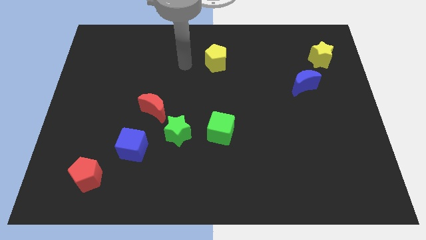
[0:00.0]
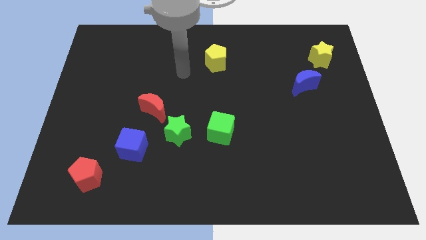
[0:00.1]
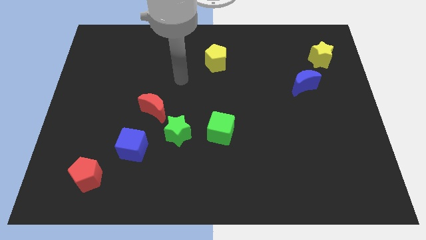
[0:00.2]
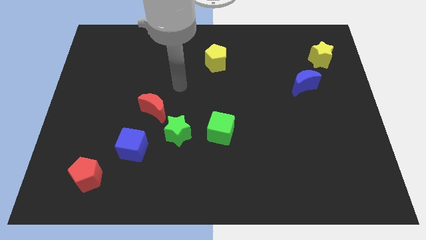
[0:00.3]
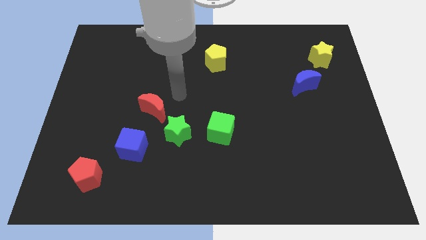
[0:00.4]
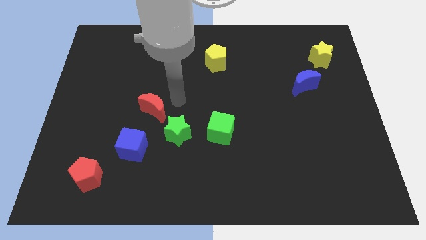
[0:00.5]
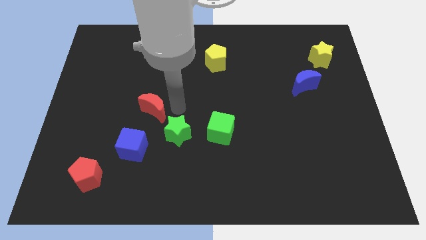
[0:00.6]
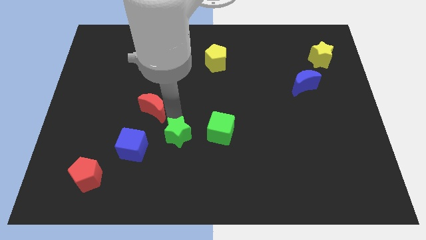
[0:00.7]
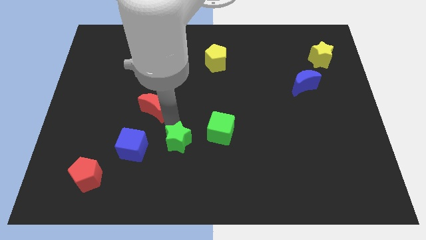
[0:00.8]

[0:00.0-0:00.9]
pull the red moon apart from the green star

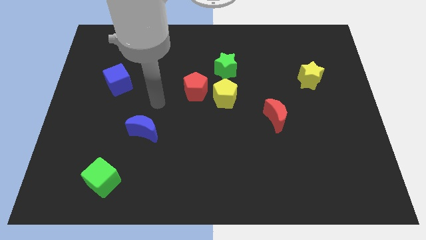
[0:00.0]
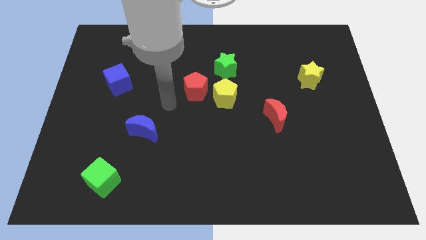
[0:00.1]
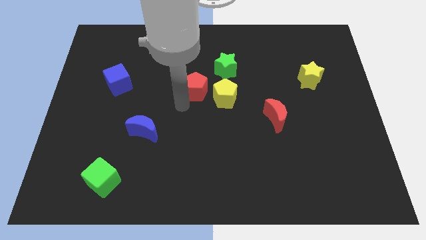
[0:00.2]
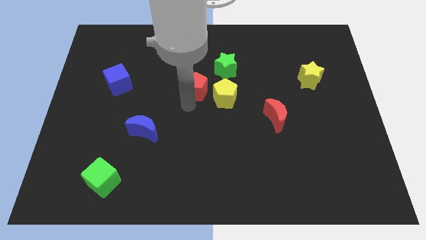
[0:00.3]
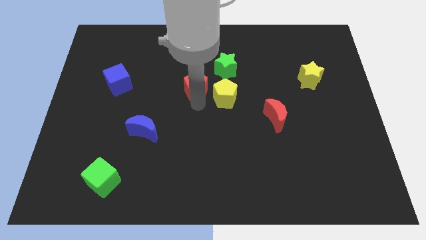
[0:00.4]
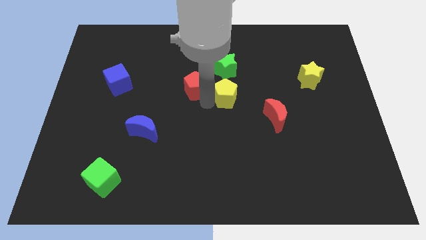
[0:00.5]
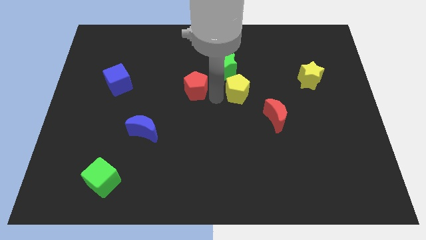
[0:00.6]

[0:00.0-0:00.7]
pull the red pentagon apart from the yellow pentagon

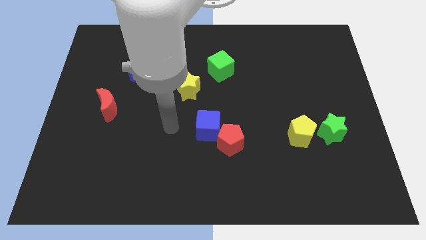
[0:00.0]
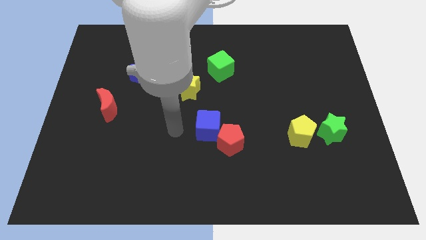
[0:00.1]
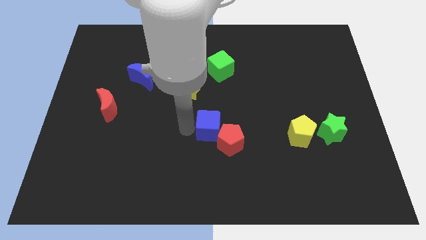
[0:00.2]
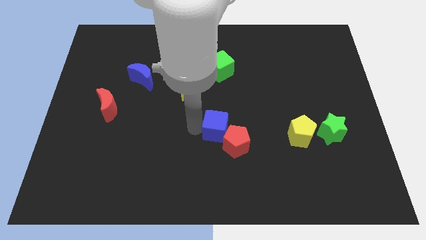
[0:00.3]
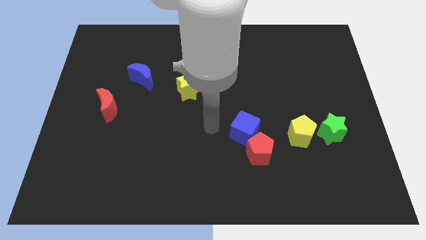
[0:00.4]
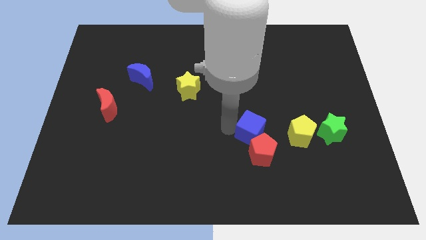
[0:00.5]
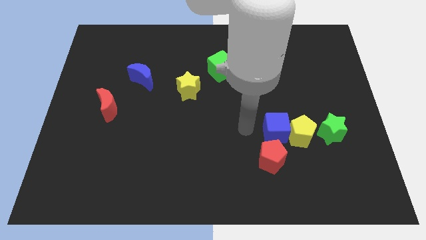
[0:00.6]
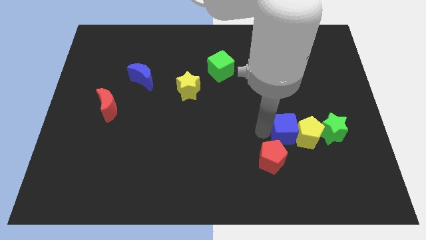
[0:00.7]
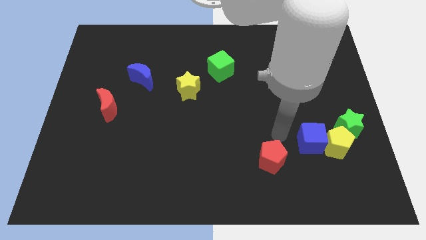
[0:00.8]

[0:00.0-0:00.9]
move the red pentagon away from the blue cube

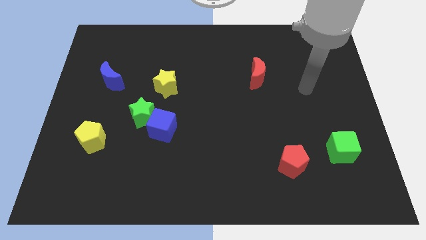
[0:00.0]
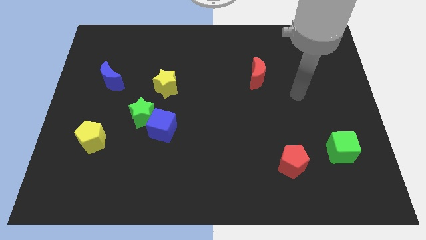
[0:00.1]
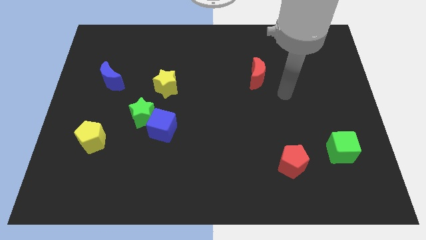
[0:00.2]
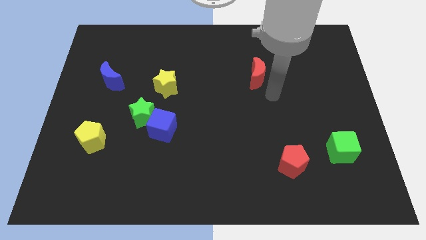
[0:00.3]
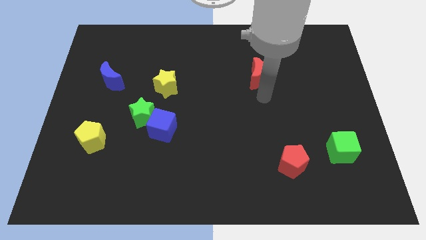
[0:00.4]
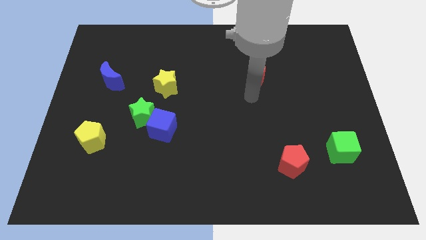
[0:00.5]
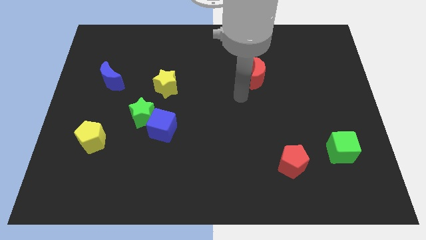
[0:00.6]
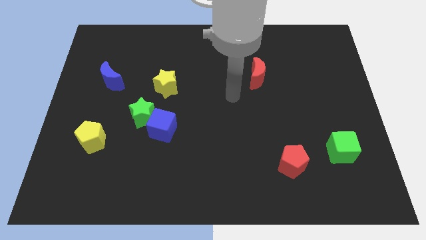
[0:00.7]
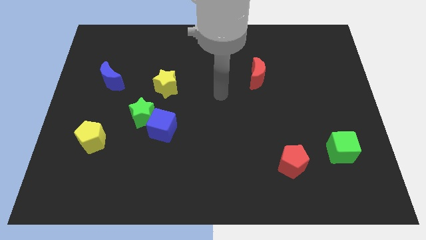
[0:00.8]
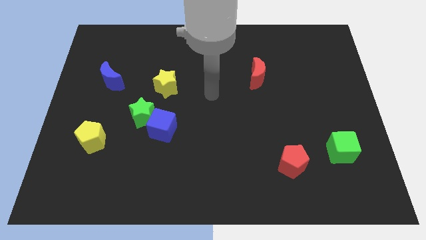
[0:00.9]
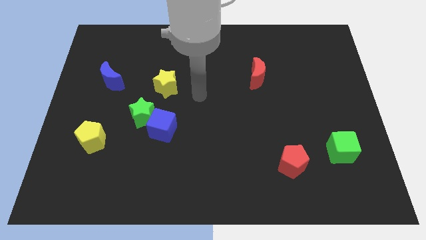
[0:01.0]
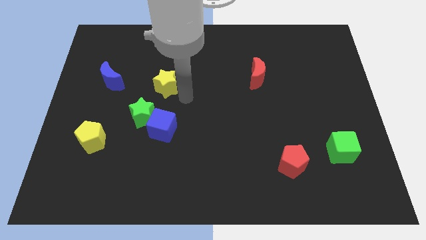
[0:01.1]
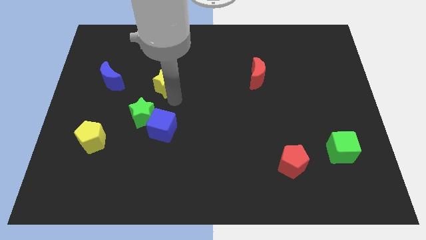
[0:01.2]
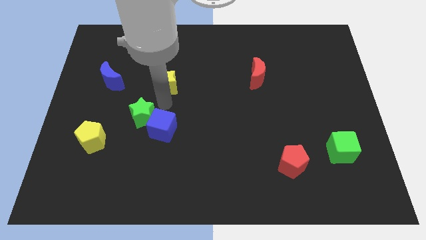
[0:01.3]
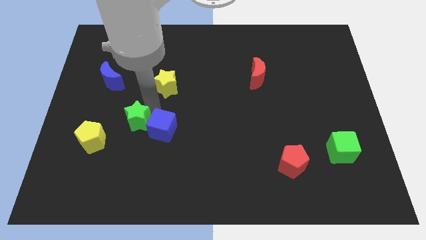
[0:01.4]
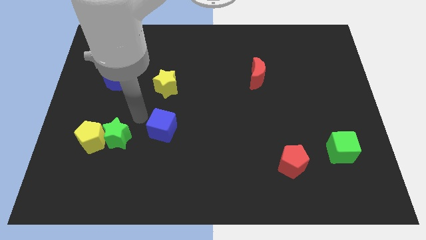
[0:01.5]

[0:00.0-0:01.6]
move the blue cube away from the green star

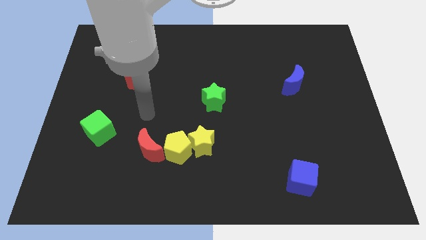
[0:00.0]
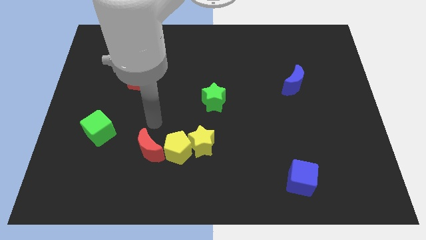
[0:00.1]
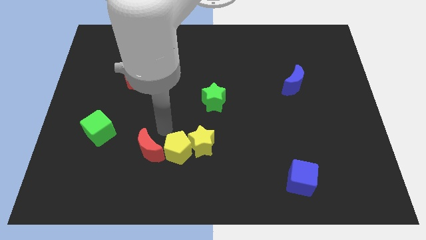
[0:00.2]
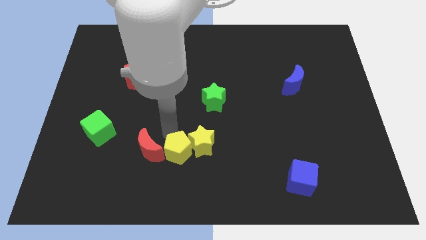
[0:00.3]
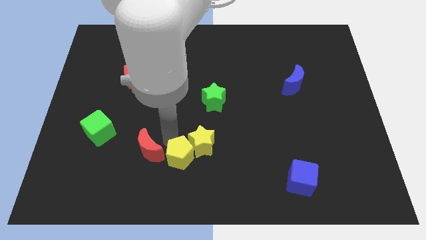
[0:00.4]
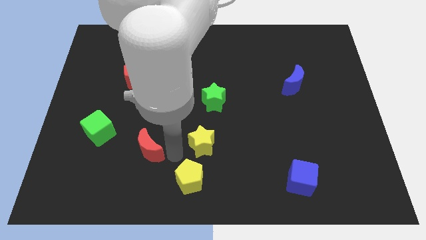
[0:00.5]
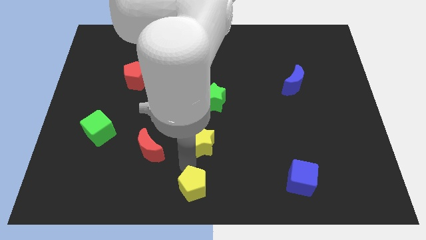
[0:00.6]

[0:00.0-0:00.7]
pull the yellow star apart from the yellow pentagon

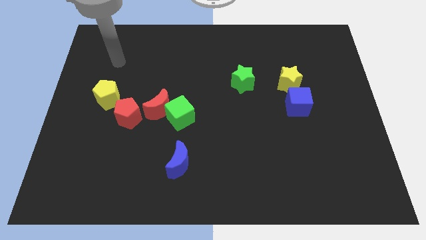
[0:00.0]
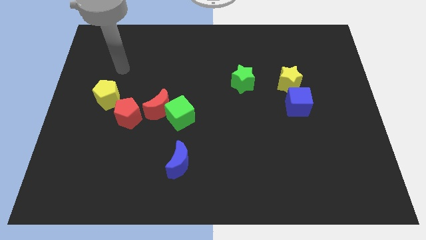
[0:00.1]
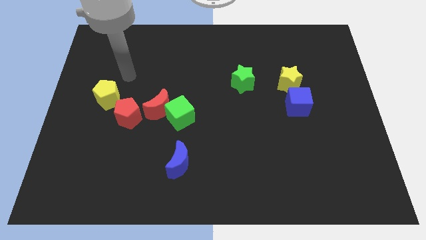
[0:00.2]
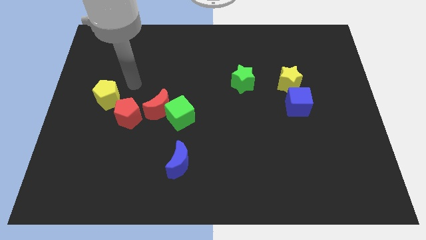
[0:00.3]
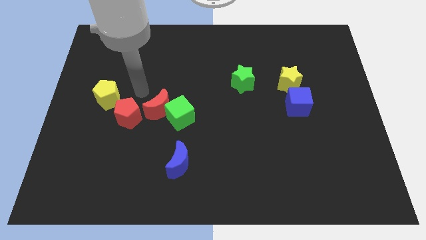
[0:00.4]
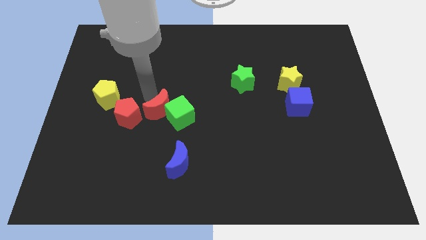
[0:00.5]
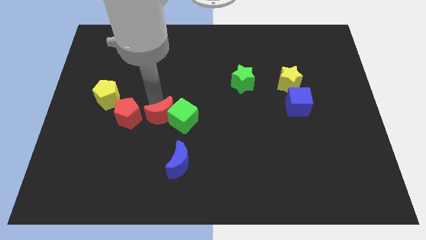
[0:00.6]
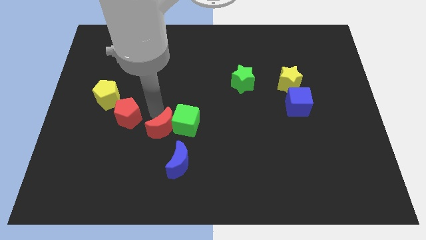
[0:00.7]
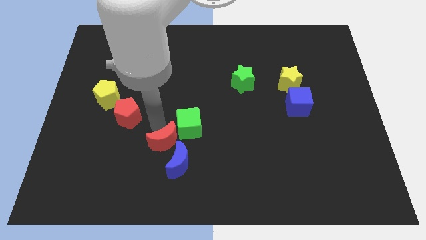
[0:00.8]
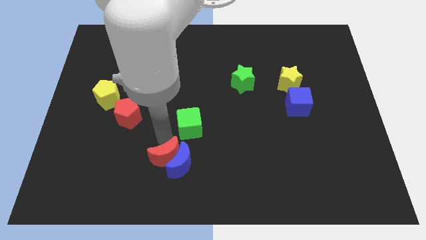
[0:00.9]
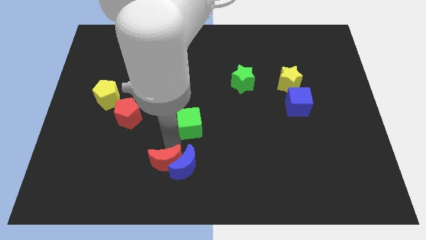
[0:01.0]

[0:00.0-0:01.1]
pull the green cube apart from the red moon

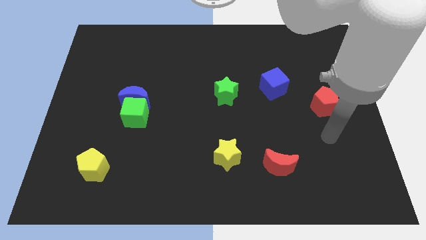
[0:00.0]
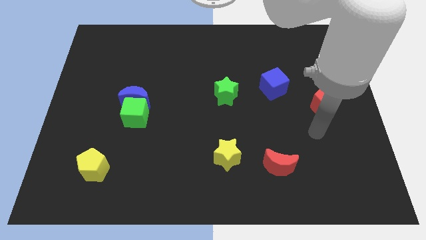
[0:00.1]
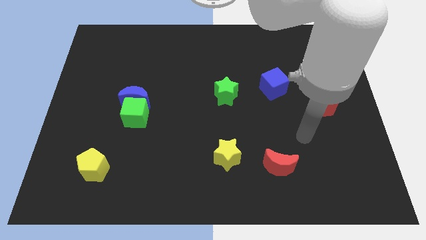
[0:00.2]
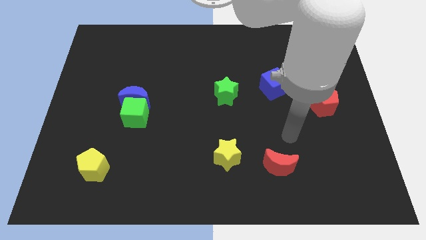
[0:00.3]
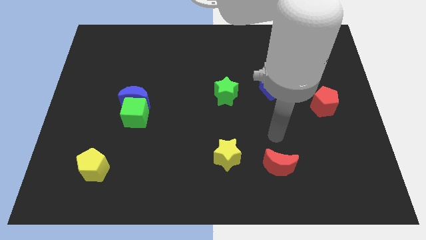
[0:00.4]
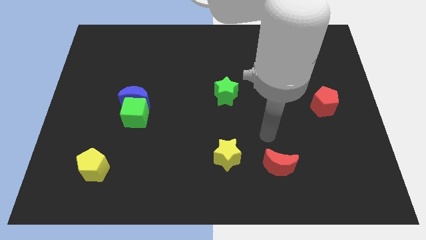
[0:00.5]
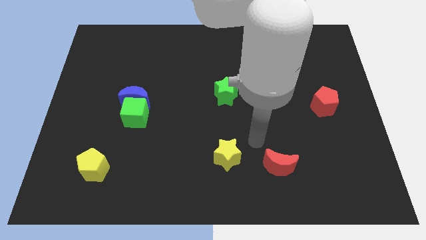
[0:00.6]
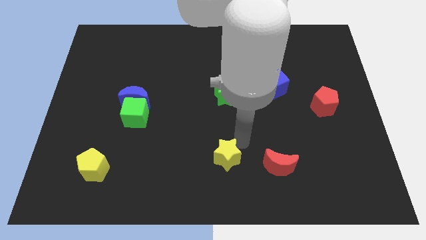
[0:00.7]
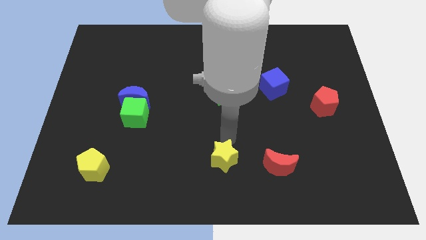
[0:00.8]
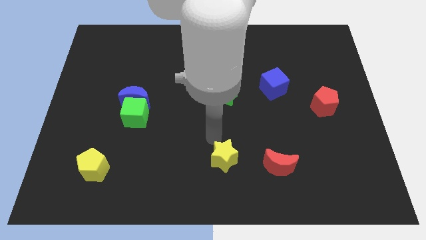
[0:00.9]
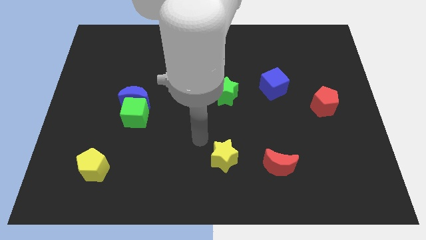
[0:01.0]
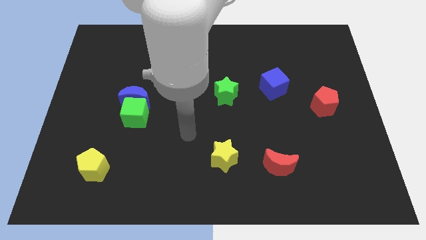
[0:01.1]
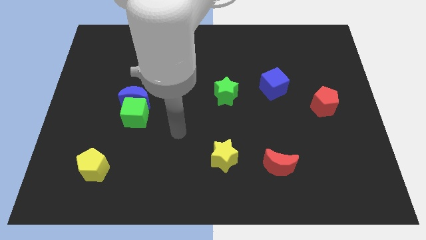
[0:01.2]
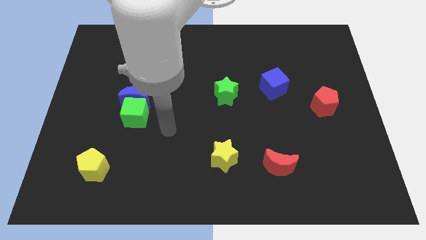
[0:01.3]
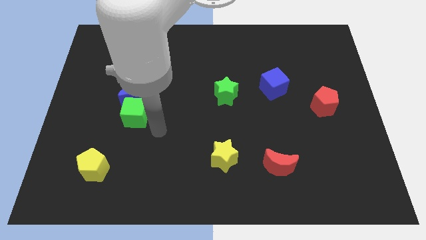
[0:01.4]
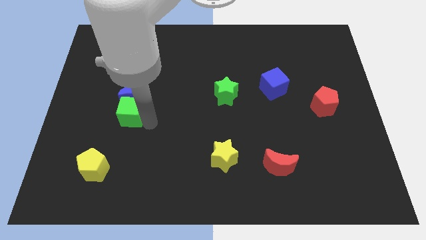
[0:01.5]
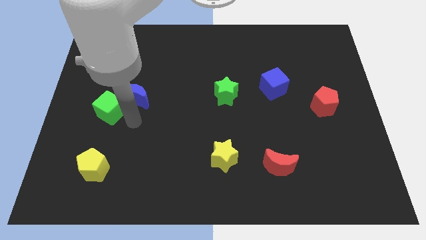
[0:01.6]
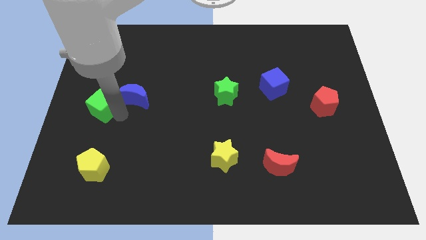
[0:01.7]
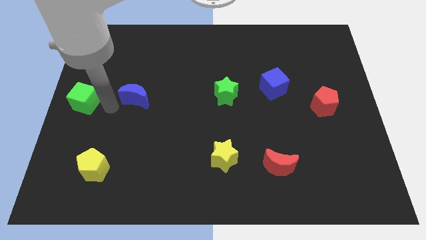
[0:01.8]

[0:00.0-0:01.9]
separate the blue moon from the green cube

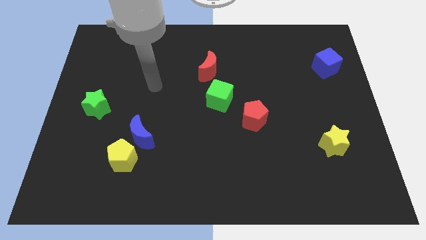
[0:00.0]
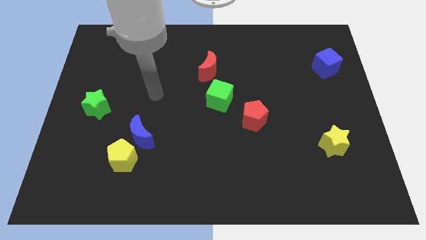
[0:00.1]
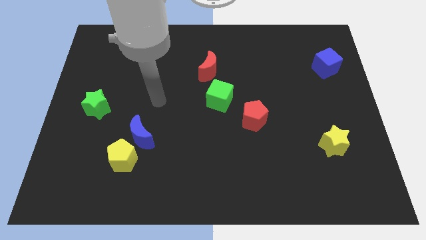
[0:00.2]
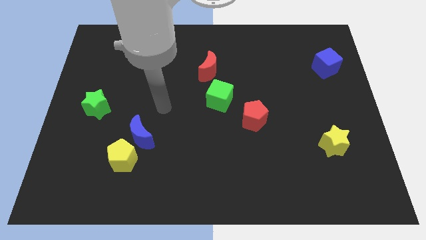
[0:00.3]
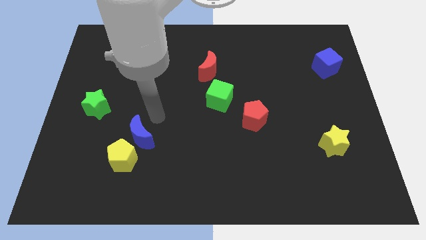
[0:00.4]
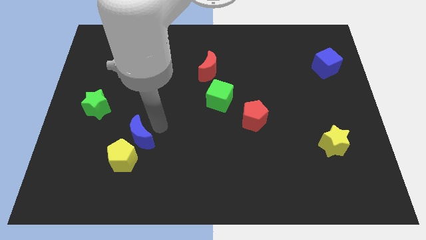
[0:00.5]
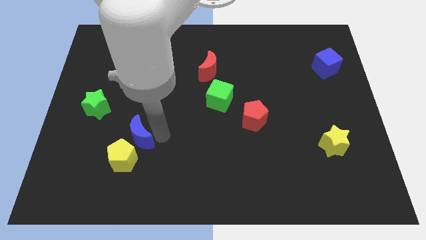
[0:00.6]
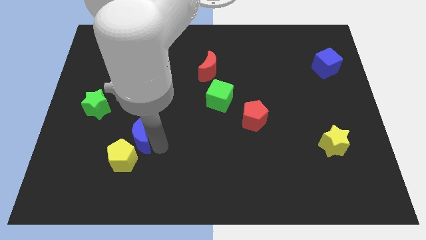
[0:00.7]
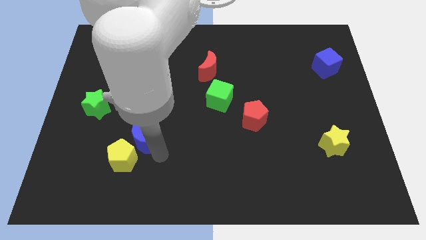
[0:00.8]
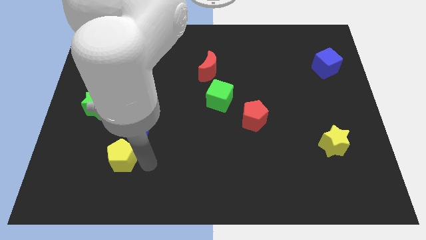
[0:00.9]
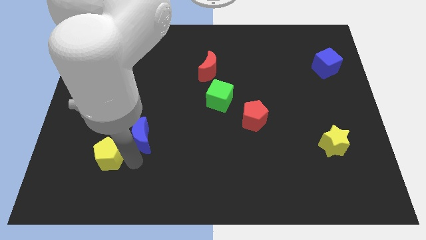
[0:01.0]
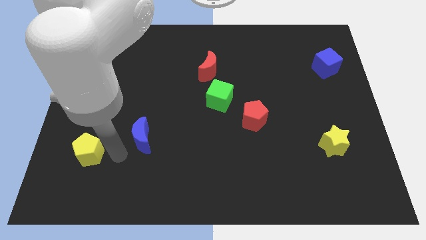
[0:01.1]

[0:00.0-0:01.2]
separate the blue moon from the yellow pentagon

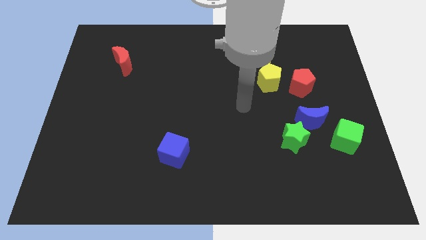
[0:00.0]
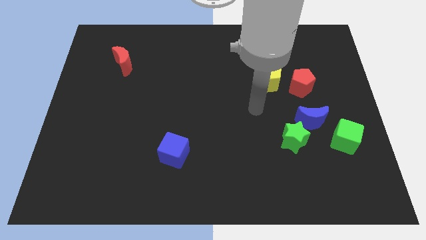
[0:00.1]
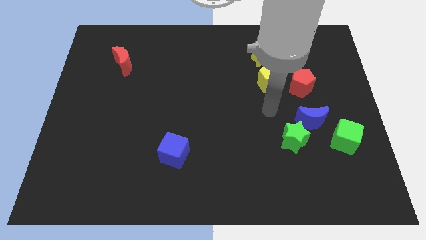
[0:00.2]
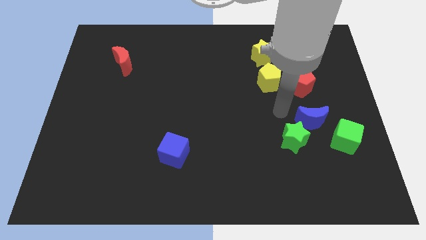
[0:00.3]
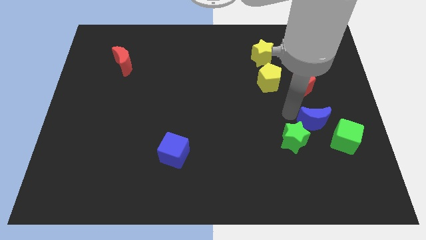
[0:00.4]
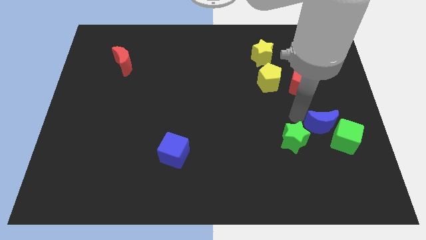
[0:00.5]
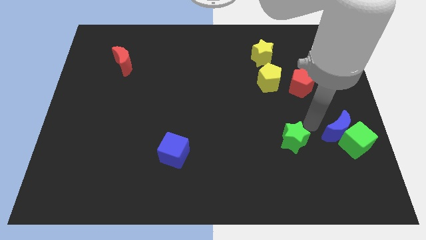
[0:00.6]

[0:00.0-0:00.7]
pull the green star apart from the blue moon
